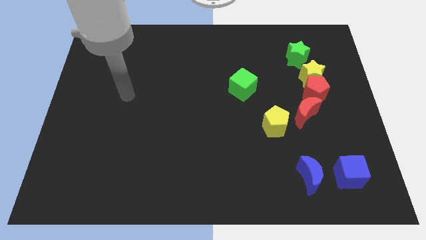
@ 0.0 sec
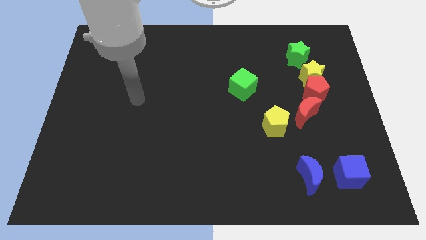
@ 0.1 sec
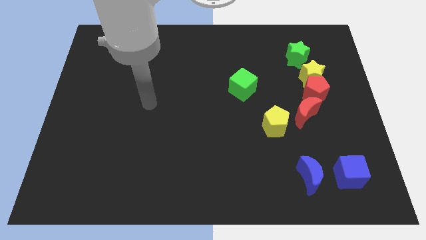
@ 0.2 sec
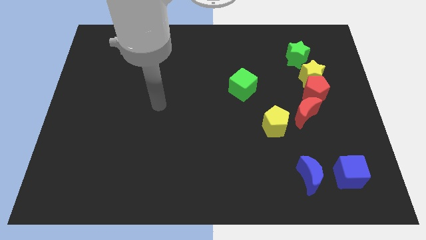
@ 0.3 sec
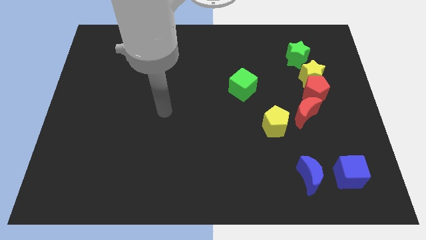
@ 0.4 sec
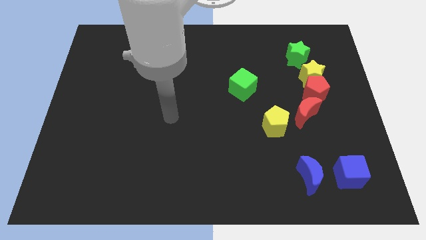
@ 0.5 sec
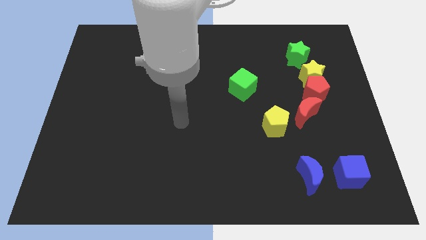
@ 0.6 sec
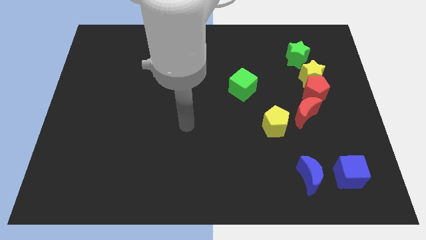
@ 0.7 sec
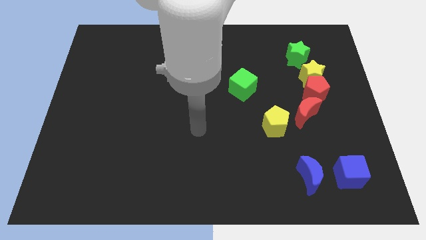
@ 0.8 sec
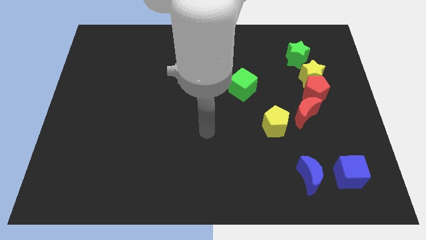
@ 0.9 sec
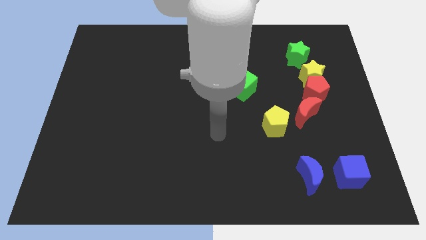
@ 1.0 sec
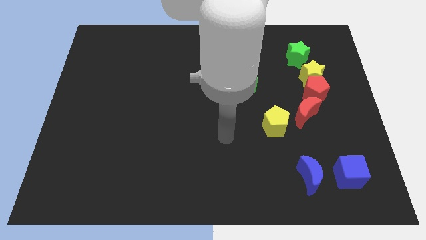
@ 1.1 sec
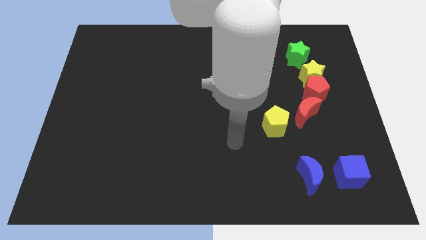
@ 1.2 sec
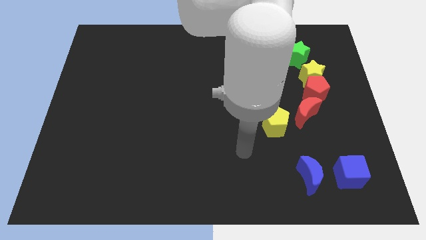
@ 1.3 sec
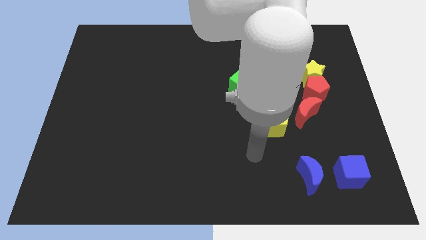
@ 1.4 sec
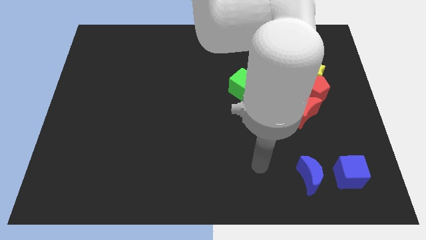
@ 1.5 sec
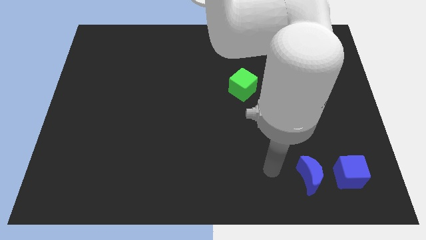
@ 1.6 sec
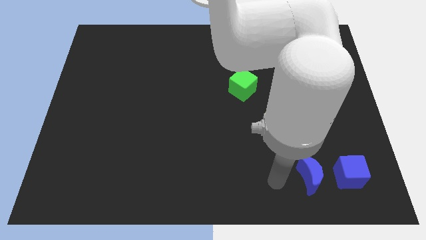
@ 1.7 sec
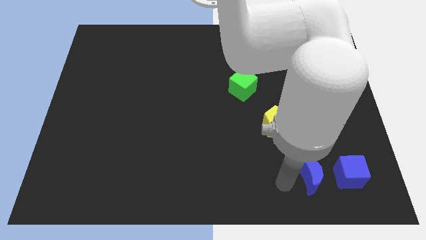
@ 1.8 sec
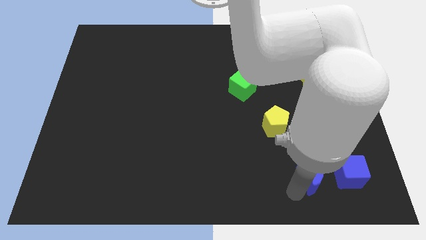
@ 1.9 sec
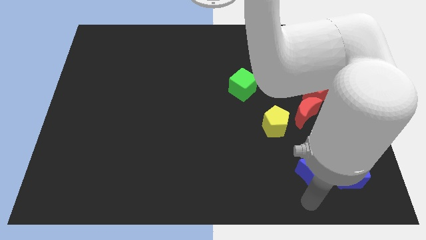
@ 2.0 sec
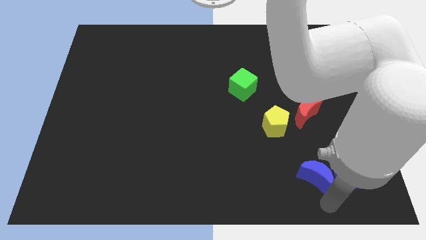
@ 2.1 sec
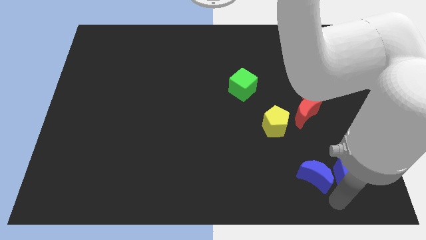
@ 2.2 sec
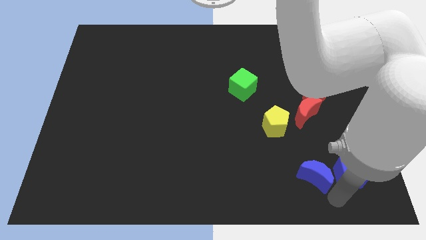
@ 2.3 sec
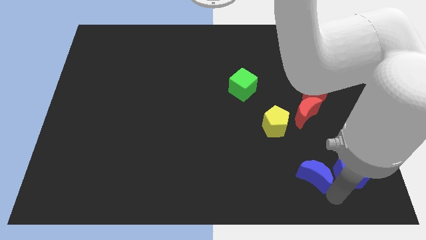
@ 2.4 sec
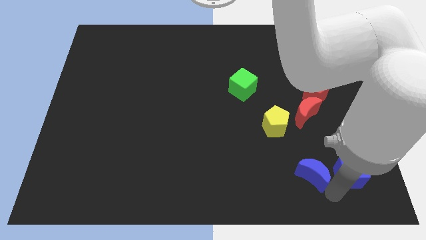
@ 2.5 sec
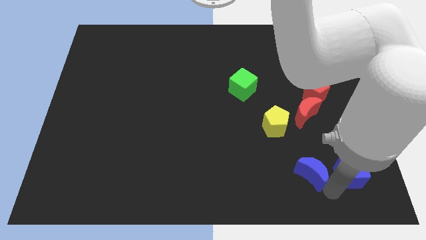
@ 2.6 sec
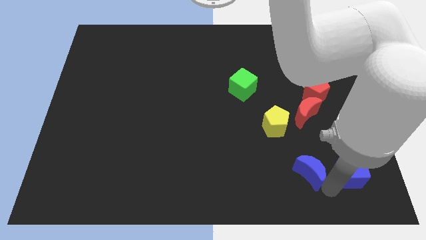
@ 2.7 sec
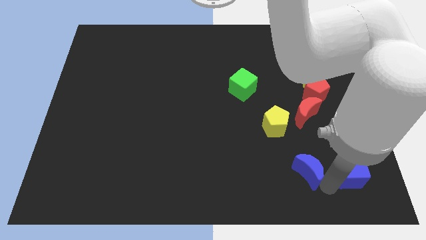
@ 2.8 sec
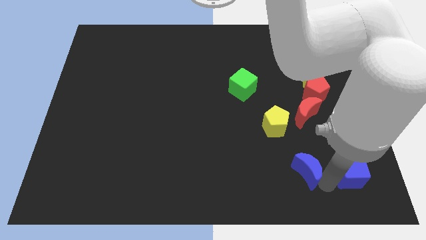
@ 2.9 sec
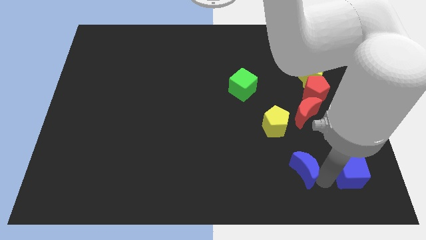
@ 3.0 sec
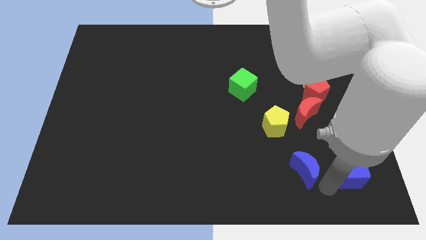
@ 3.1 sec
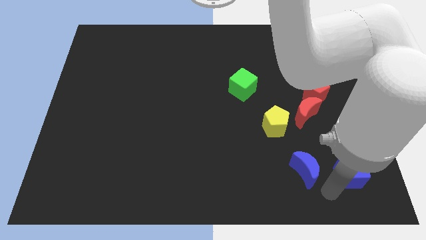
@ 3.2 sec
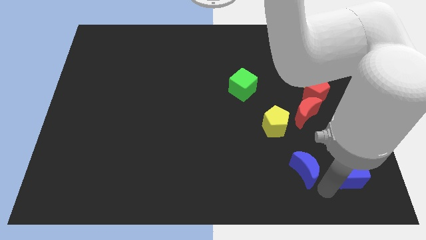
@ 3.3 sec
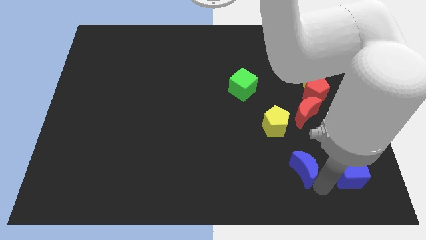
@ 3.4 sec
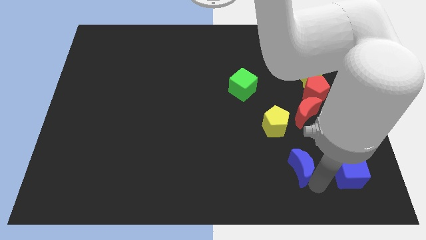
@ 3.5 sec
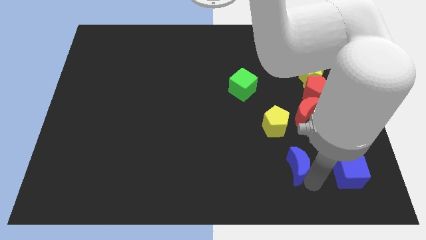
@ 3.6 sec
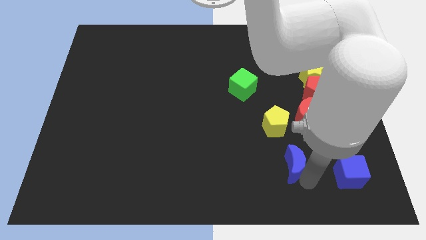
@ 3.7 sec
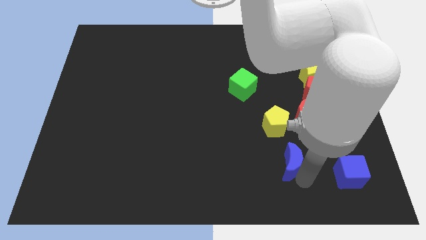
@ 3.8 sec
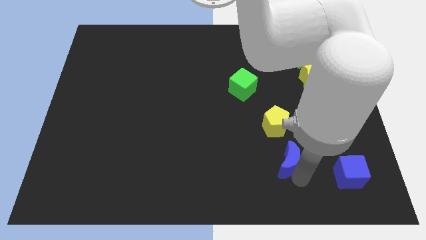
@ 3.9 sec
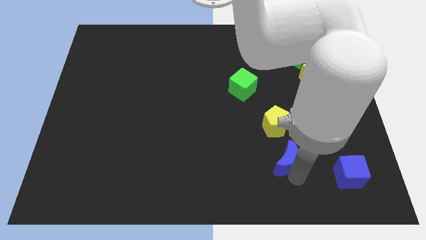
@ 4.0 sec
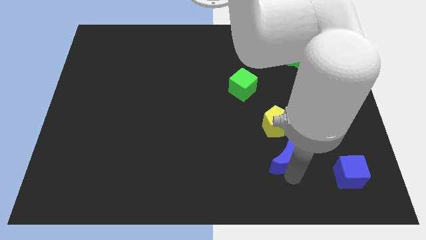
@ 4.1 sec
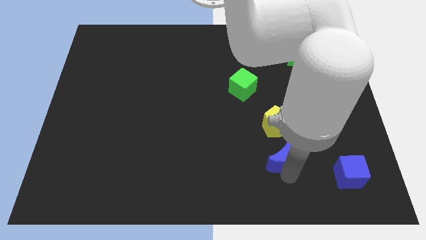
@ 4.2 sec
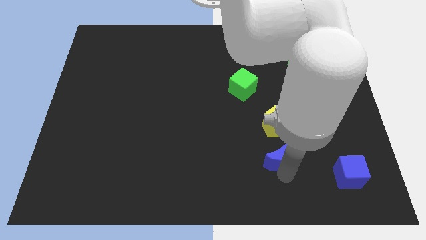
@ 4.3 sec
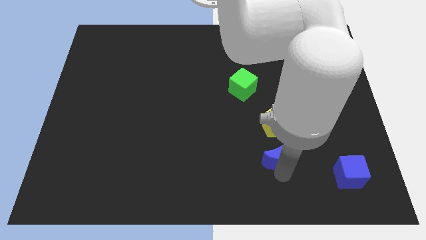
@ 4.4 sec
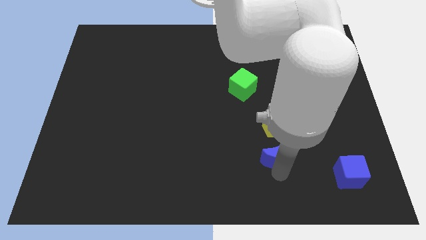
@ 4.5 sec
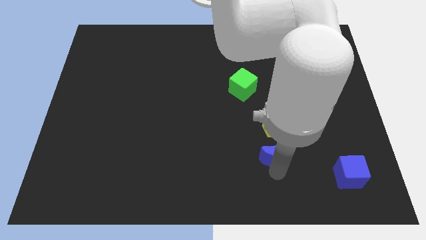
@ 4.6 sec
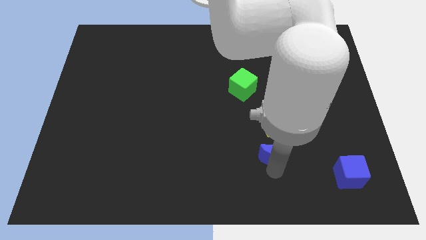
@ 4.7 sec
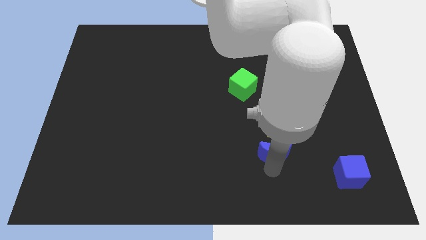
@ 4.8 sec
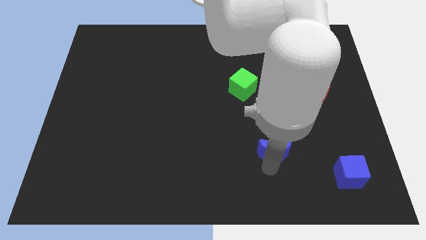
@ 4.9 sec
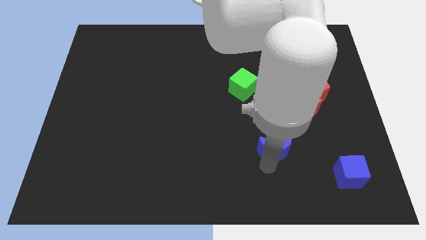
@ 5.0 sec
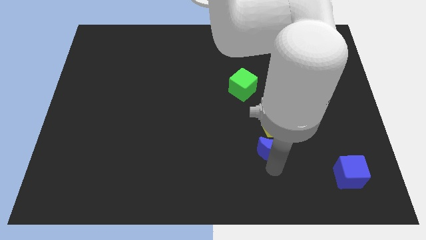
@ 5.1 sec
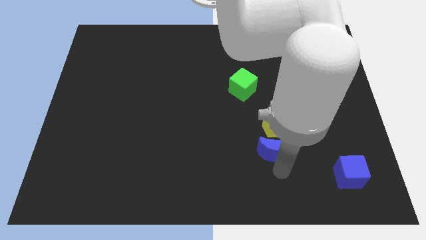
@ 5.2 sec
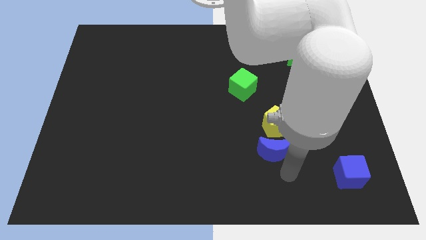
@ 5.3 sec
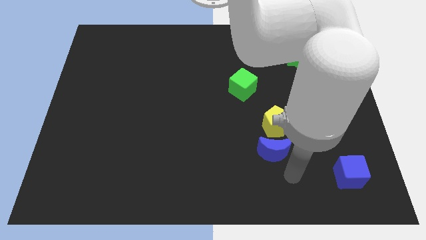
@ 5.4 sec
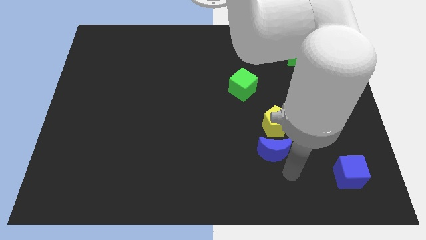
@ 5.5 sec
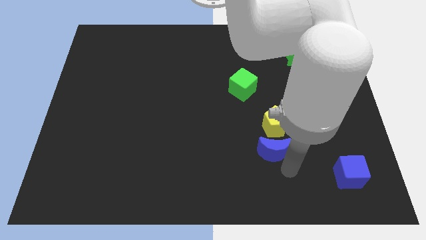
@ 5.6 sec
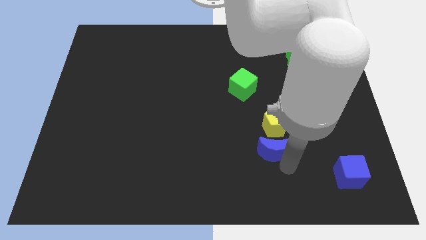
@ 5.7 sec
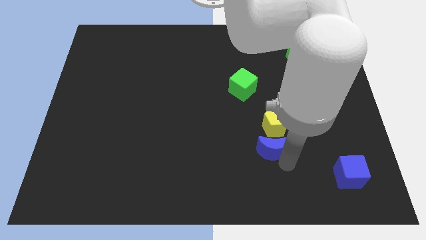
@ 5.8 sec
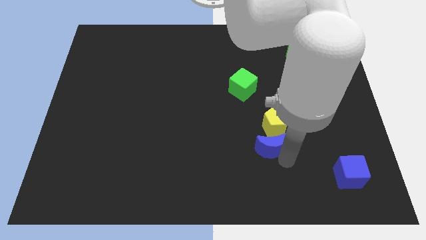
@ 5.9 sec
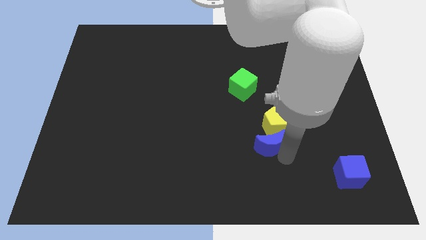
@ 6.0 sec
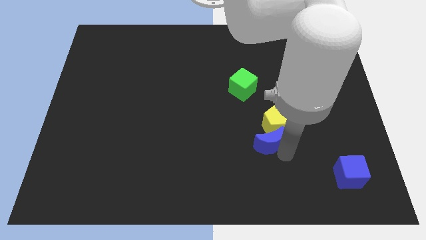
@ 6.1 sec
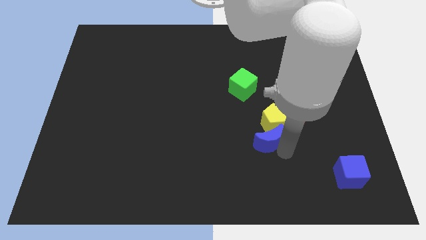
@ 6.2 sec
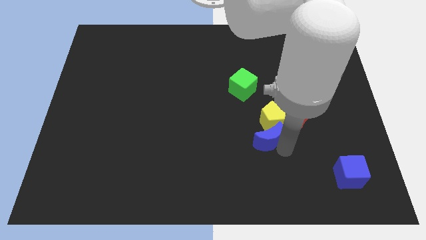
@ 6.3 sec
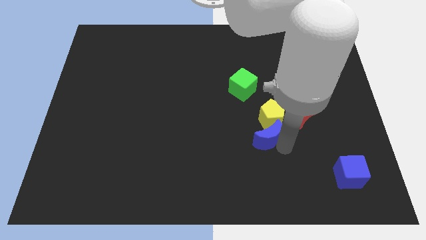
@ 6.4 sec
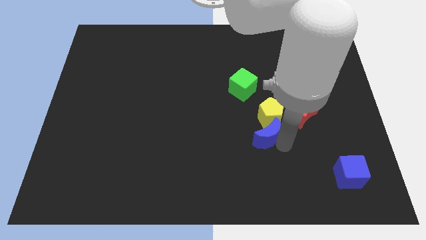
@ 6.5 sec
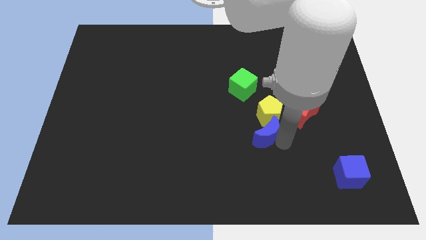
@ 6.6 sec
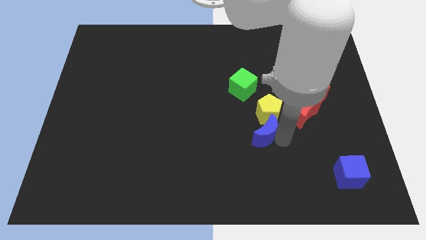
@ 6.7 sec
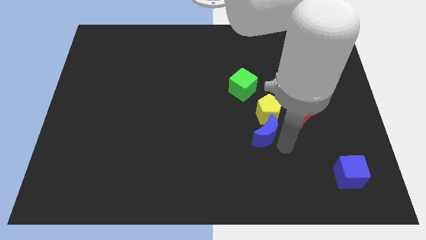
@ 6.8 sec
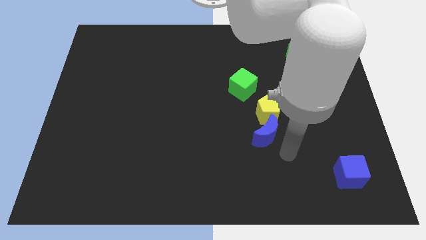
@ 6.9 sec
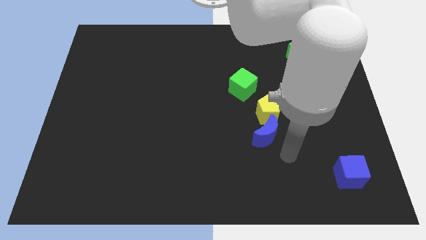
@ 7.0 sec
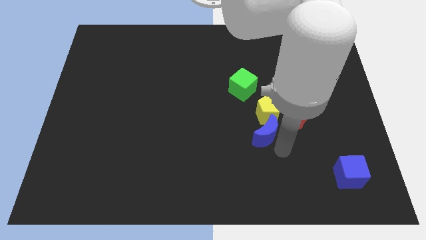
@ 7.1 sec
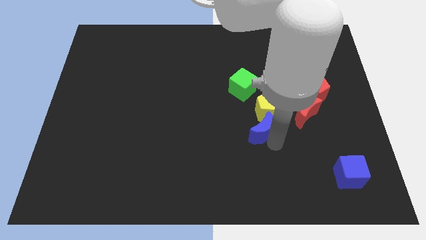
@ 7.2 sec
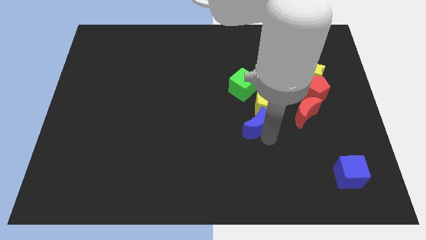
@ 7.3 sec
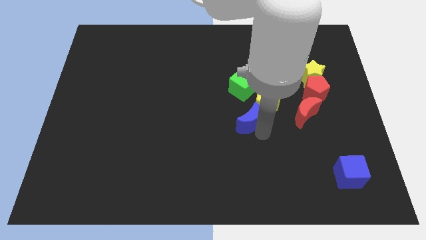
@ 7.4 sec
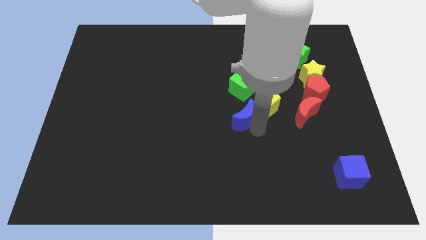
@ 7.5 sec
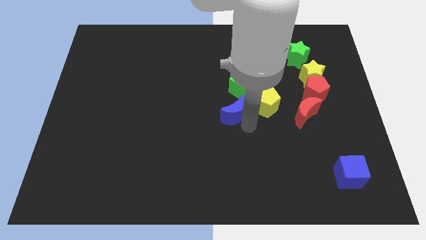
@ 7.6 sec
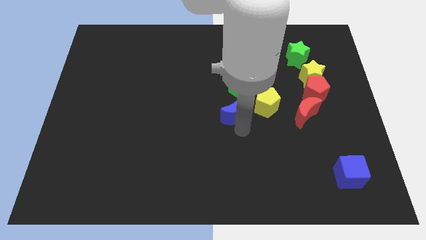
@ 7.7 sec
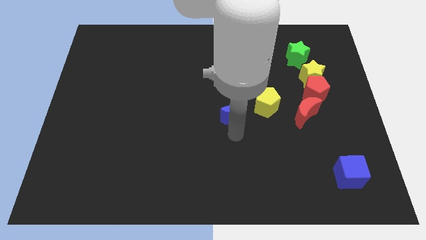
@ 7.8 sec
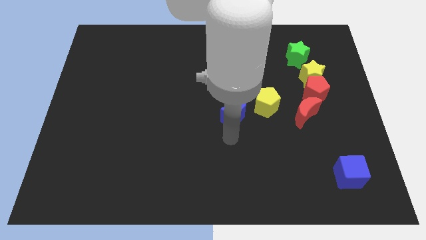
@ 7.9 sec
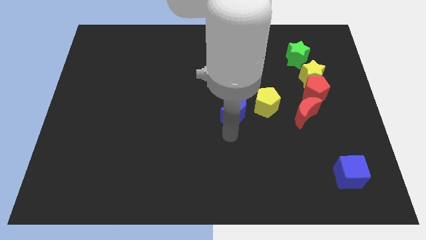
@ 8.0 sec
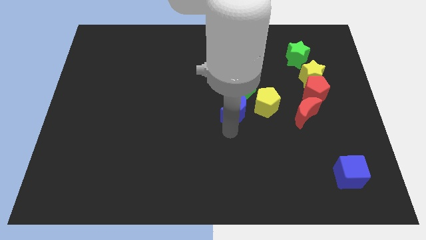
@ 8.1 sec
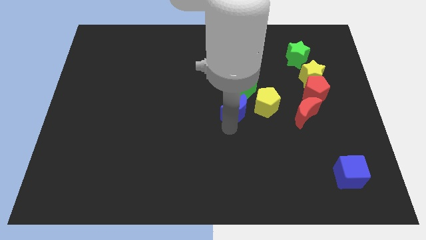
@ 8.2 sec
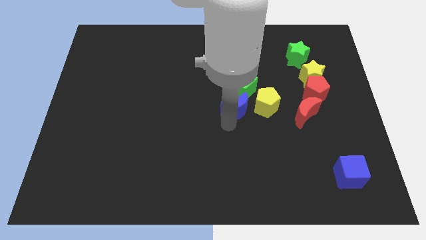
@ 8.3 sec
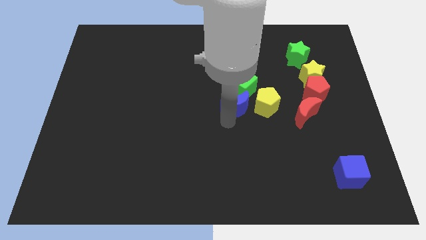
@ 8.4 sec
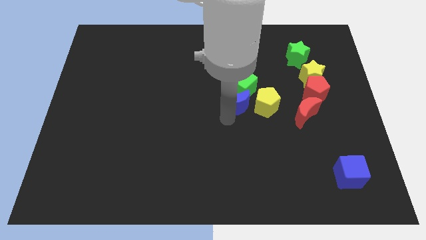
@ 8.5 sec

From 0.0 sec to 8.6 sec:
put the blue moon towards the green cube
